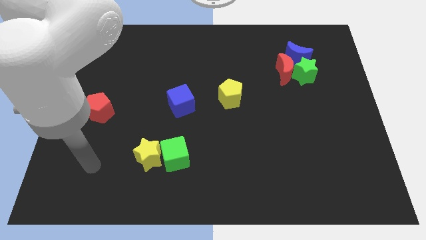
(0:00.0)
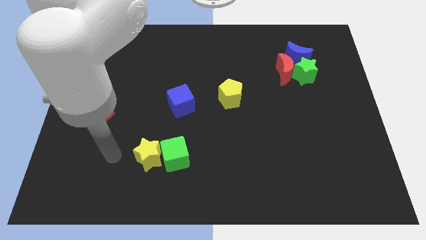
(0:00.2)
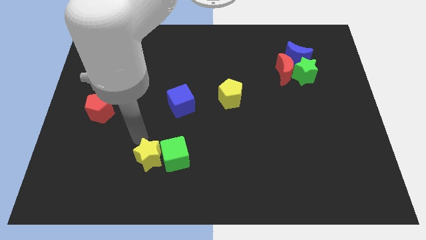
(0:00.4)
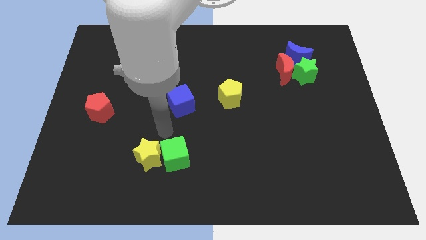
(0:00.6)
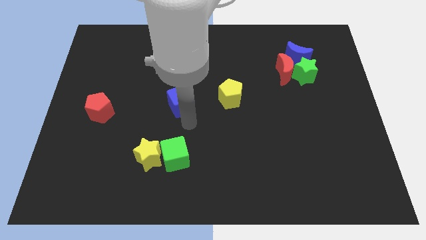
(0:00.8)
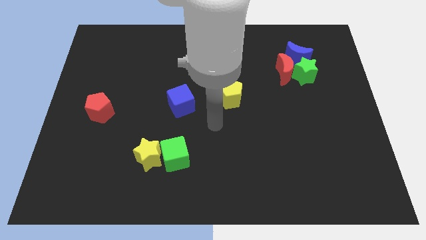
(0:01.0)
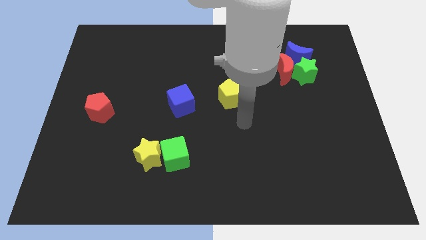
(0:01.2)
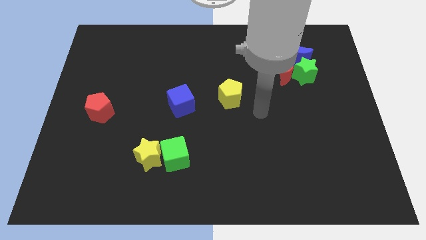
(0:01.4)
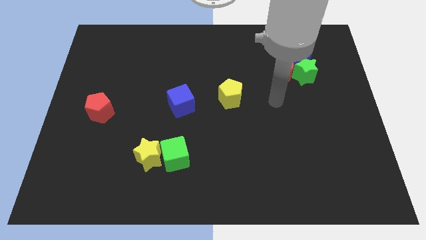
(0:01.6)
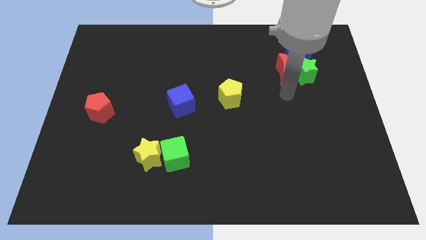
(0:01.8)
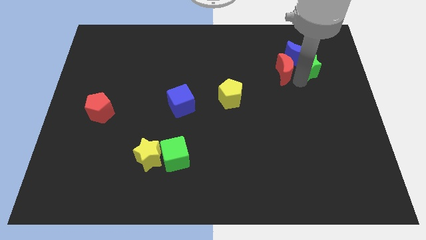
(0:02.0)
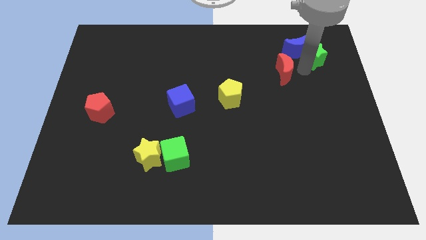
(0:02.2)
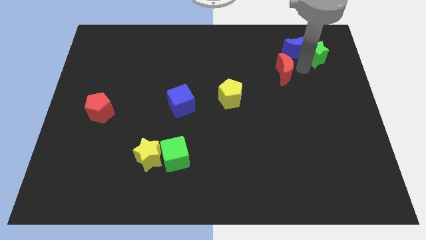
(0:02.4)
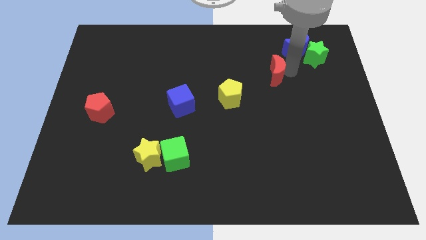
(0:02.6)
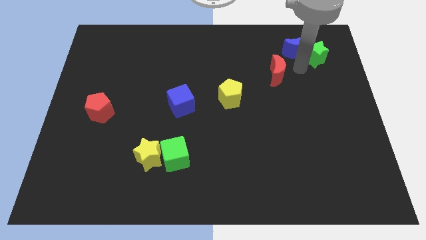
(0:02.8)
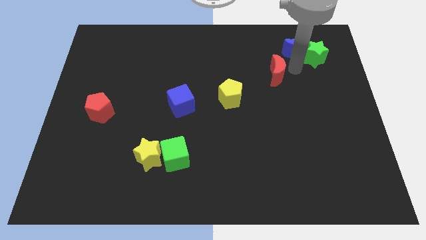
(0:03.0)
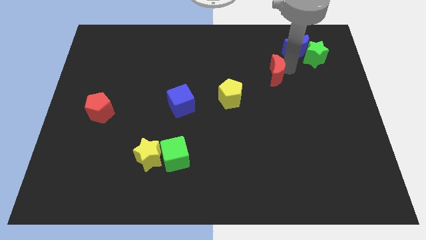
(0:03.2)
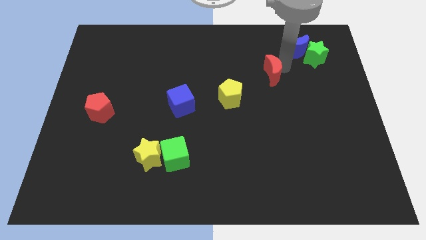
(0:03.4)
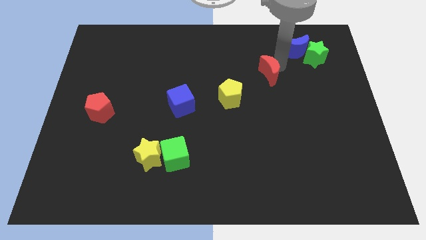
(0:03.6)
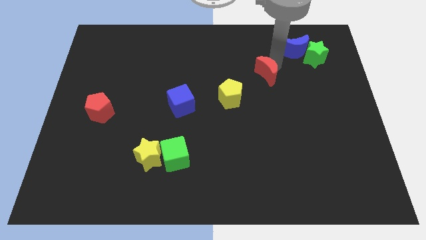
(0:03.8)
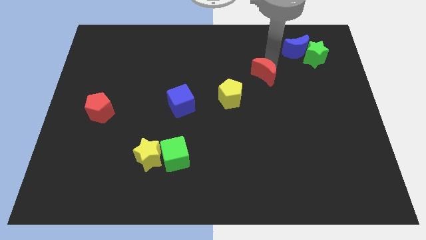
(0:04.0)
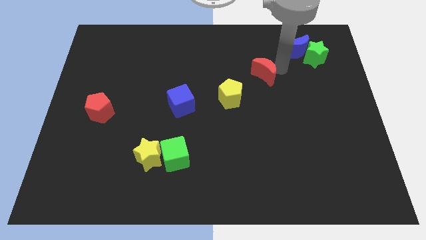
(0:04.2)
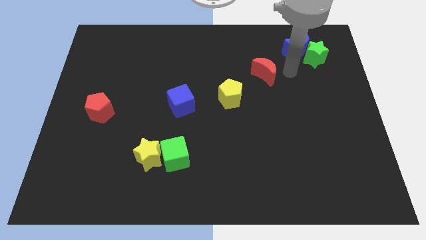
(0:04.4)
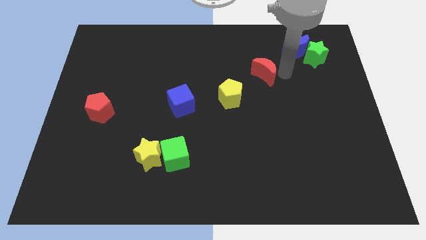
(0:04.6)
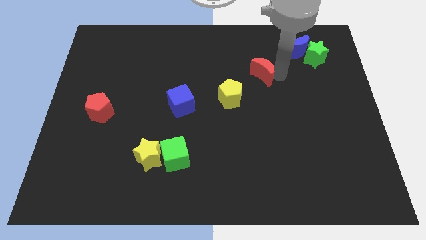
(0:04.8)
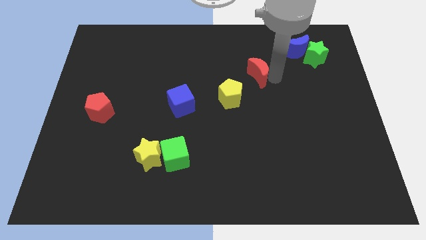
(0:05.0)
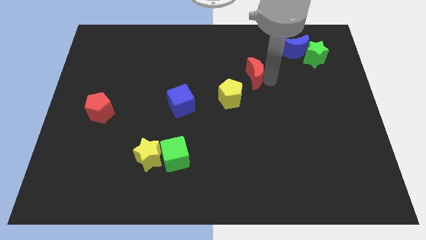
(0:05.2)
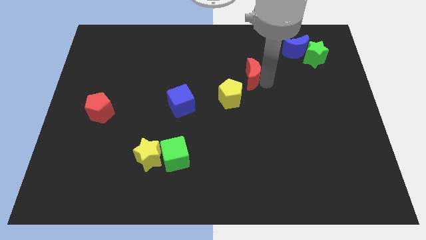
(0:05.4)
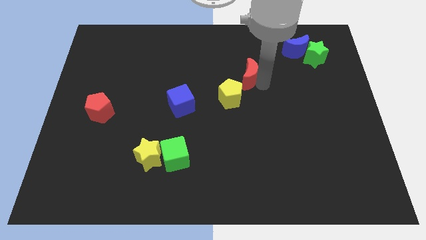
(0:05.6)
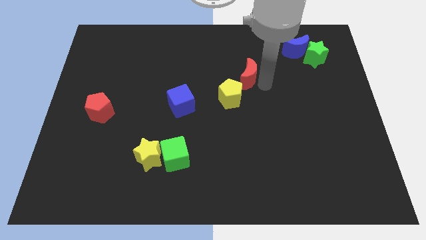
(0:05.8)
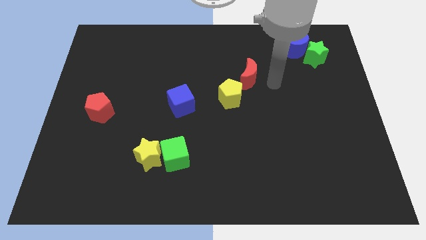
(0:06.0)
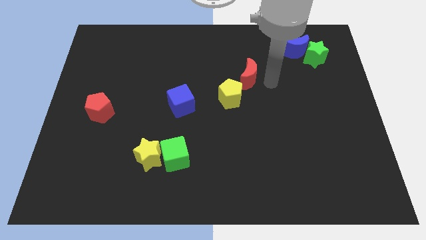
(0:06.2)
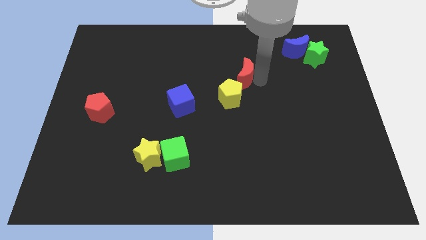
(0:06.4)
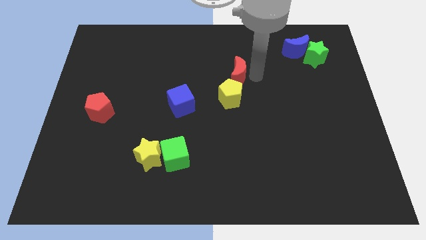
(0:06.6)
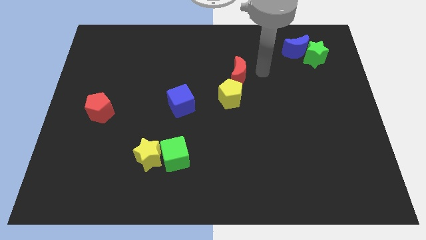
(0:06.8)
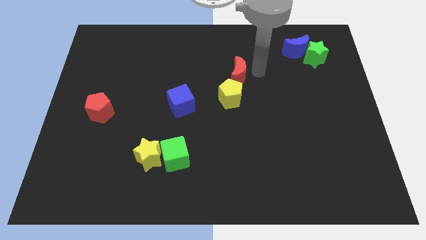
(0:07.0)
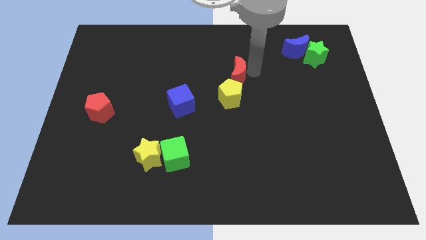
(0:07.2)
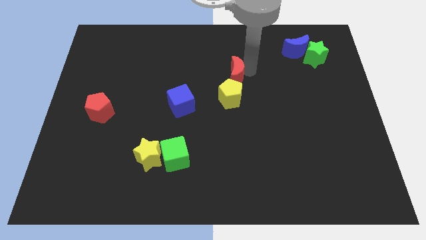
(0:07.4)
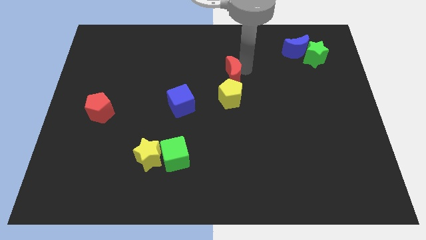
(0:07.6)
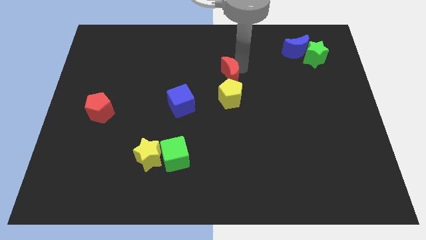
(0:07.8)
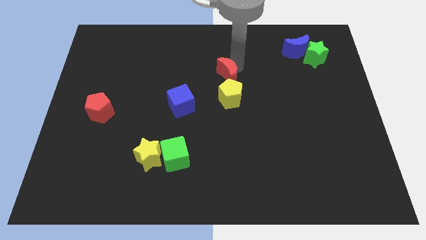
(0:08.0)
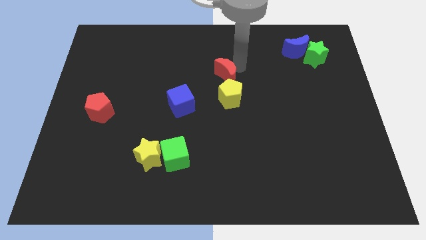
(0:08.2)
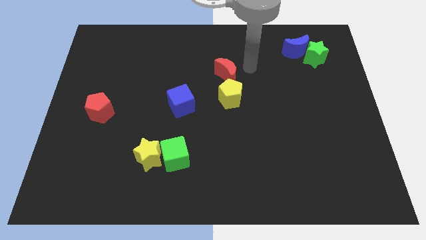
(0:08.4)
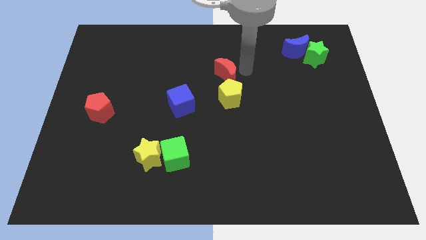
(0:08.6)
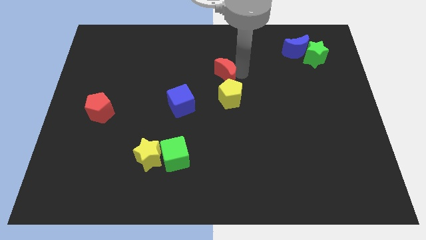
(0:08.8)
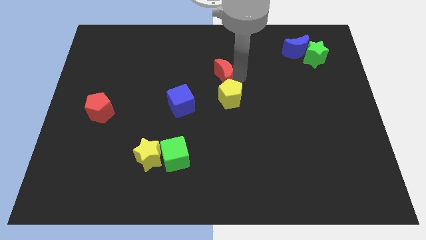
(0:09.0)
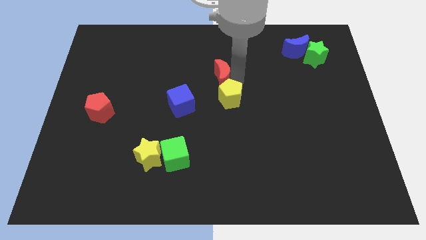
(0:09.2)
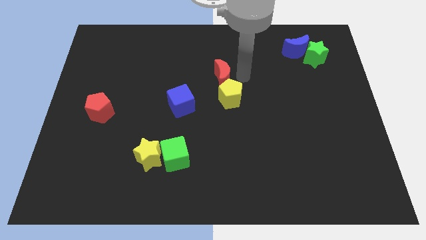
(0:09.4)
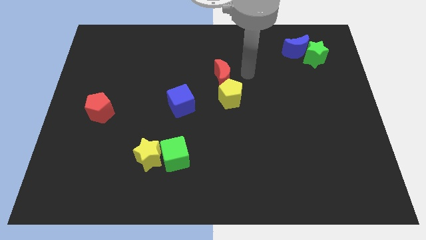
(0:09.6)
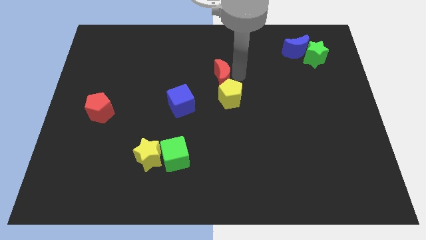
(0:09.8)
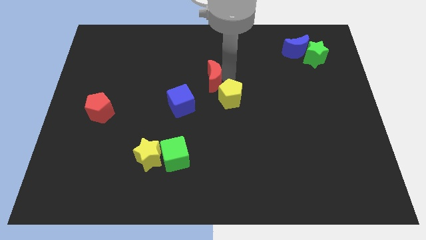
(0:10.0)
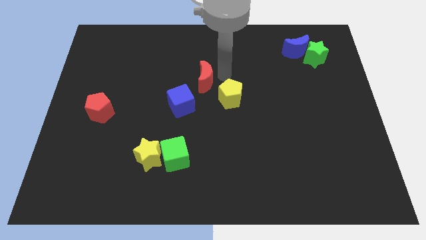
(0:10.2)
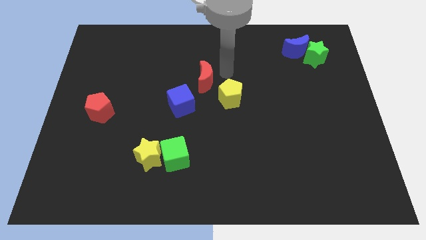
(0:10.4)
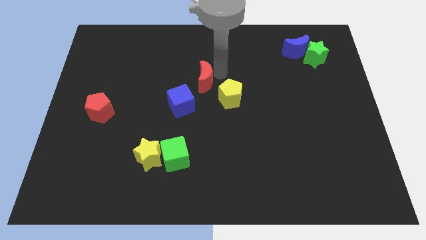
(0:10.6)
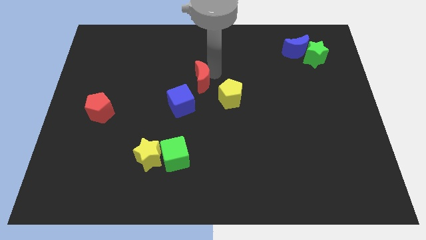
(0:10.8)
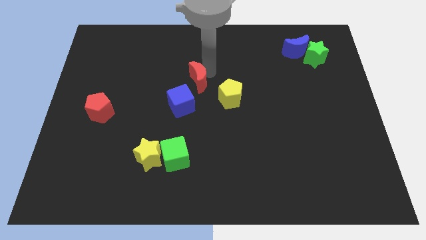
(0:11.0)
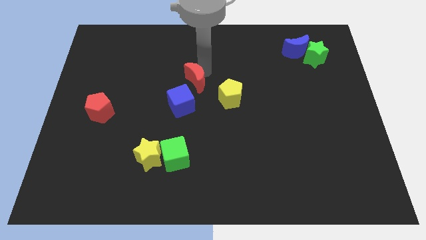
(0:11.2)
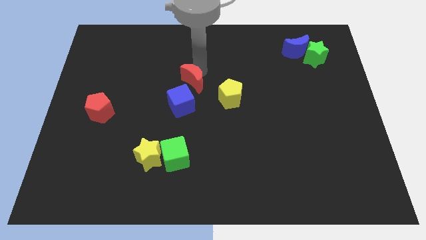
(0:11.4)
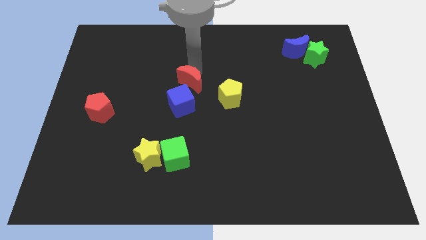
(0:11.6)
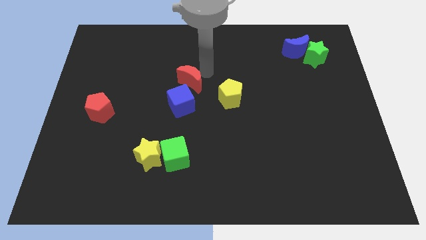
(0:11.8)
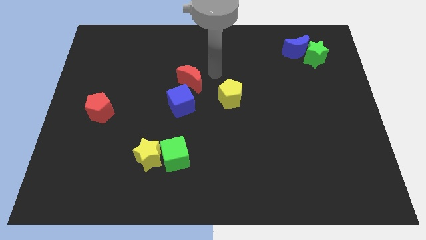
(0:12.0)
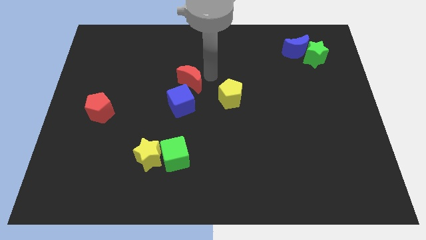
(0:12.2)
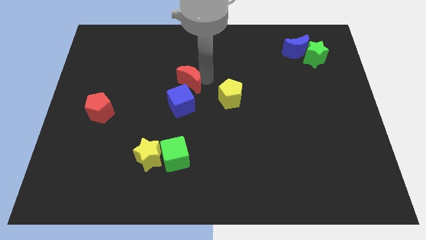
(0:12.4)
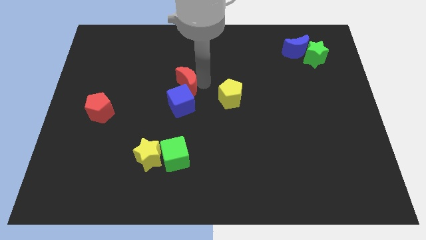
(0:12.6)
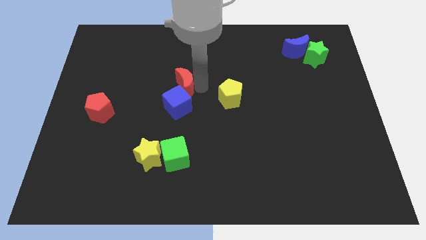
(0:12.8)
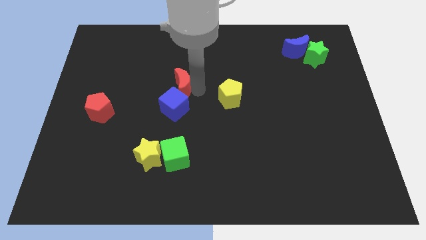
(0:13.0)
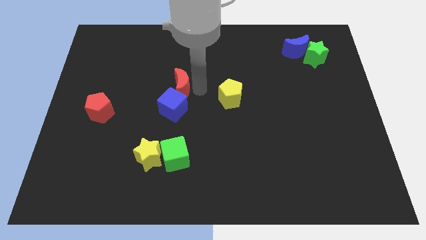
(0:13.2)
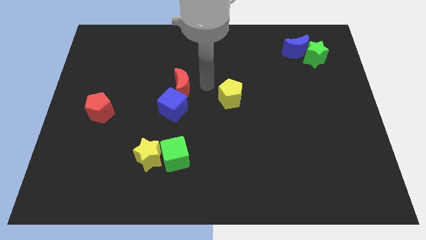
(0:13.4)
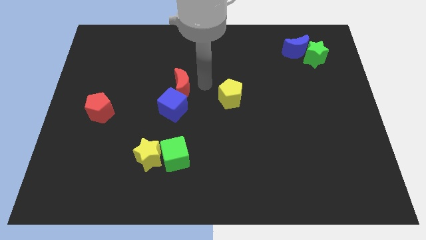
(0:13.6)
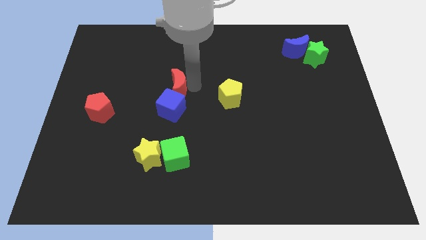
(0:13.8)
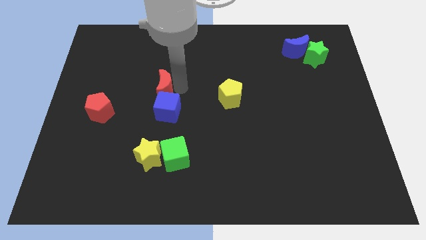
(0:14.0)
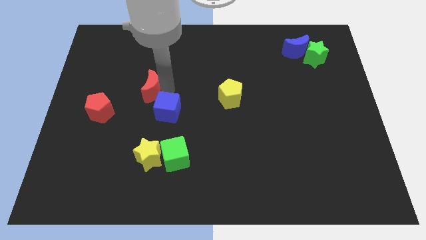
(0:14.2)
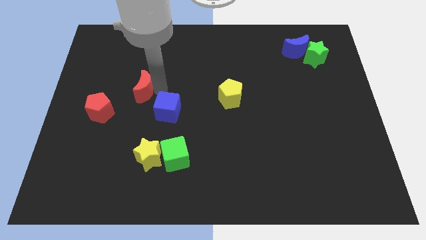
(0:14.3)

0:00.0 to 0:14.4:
move the red moon to the top right of the red pentagon
